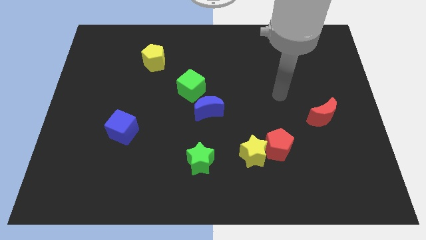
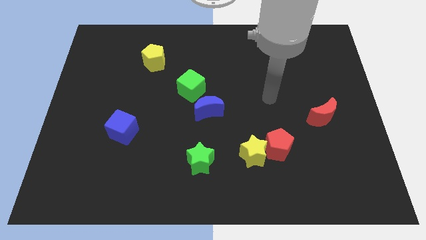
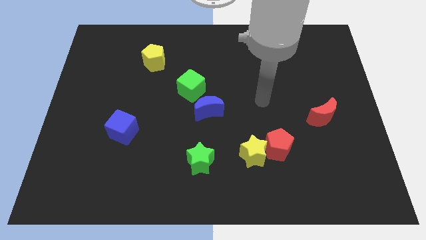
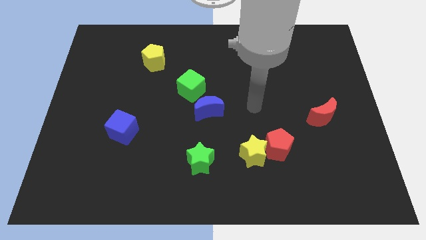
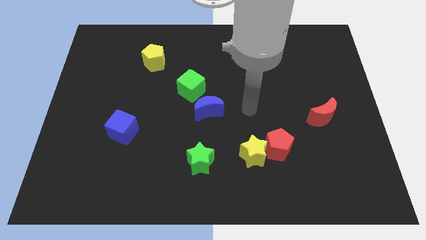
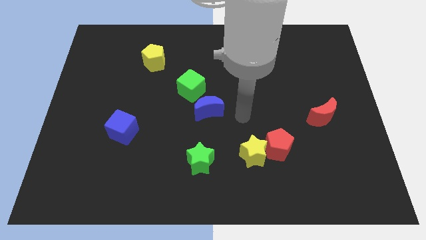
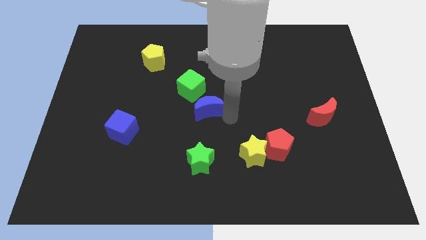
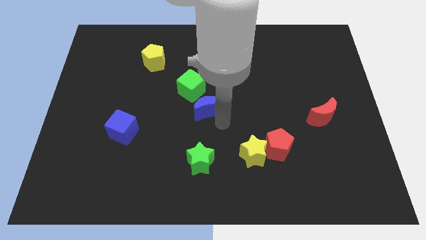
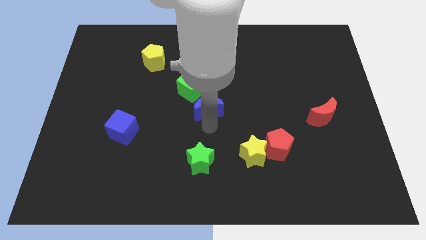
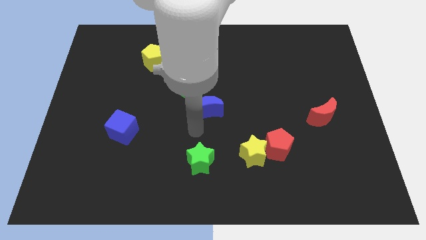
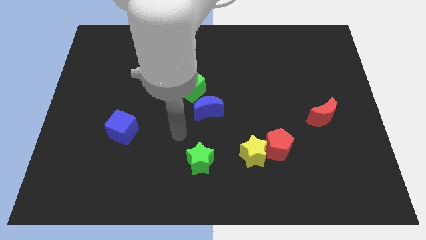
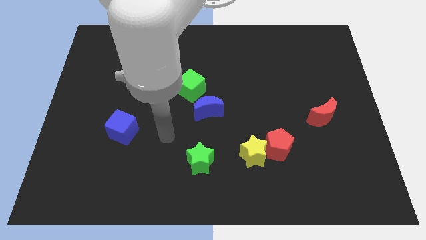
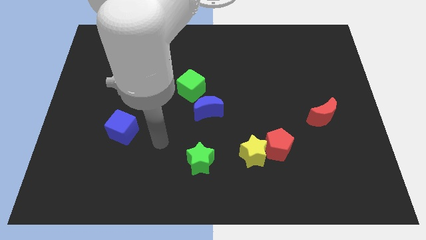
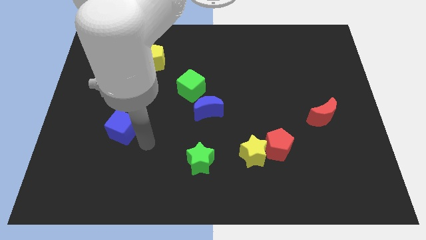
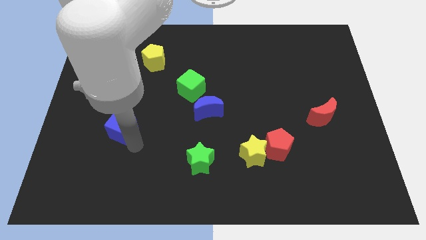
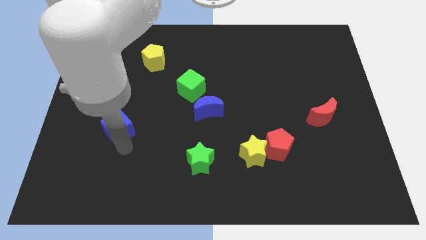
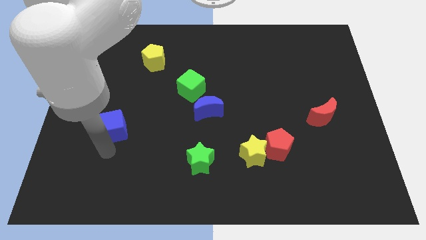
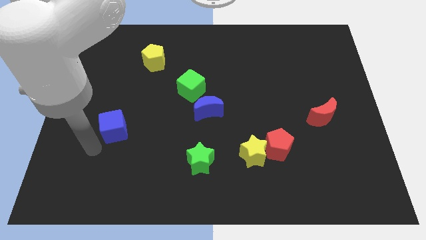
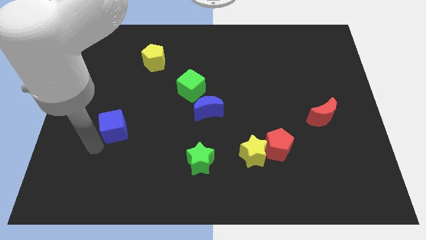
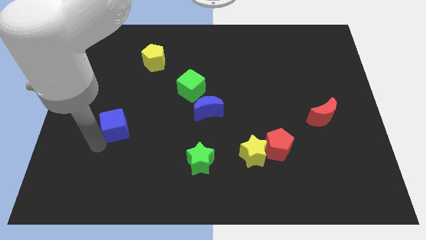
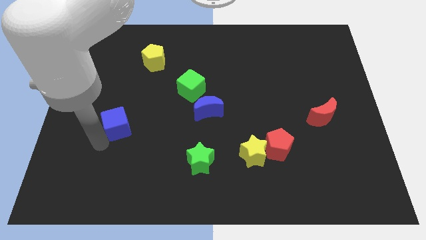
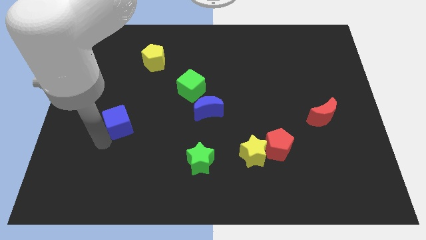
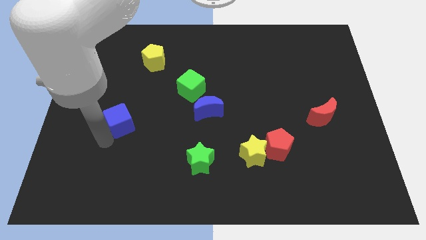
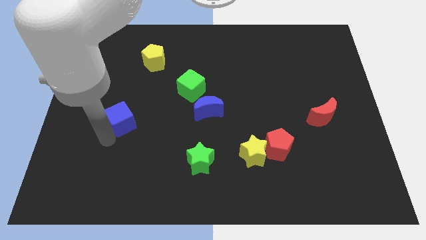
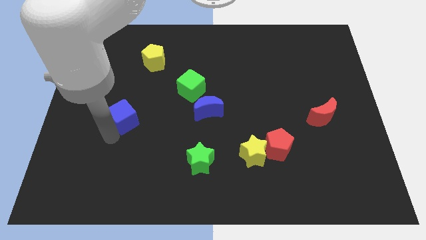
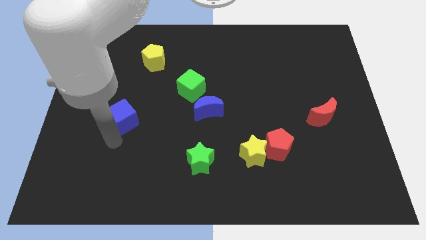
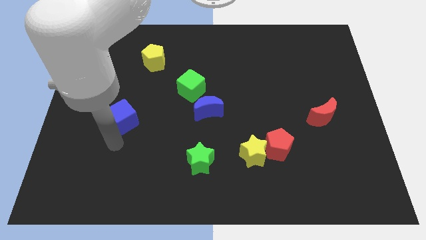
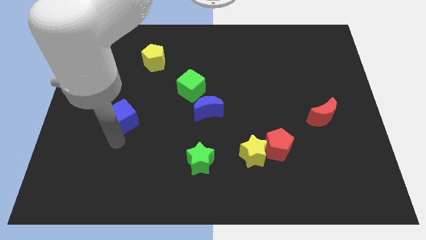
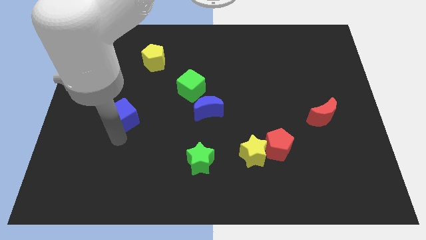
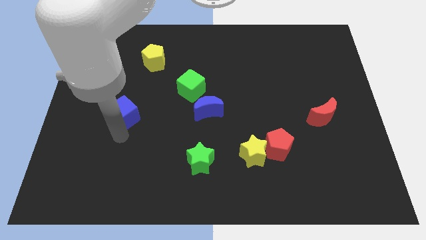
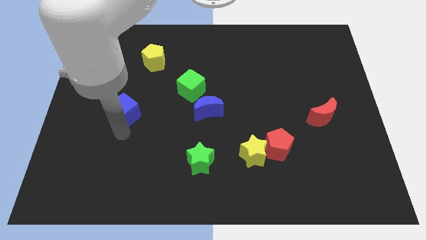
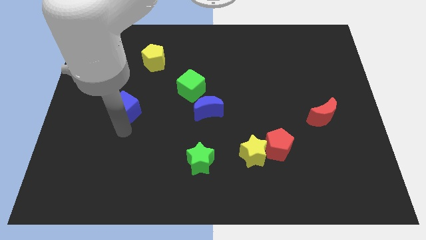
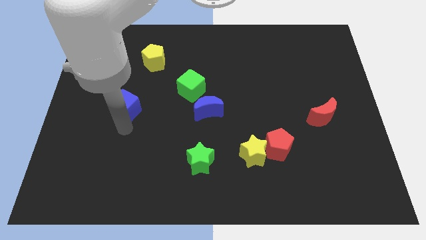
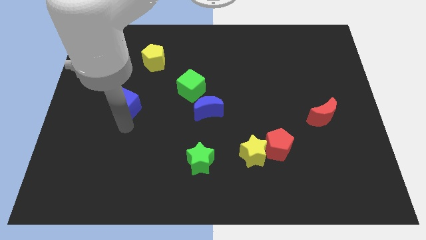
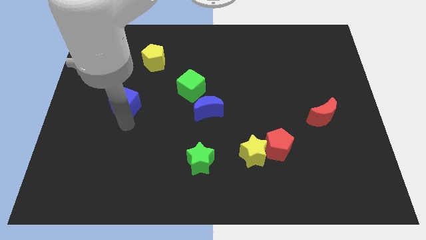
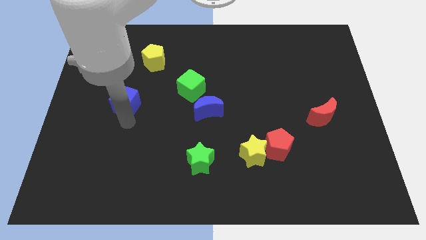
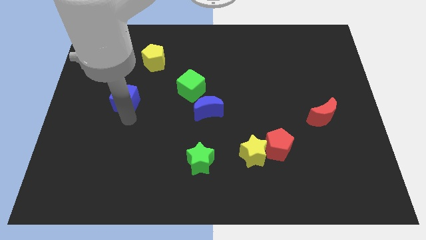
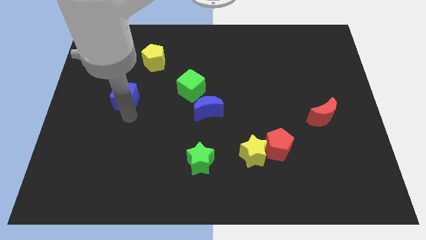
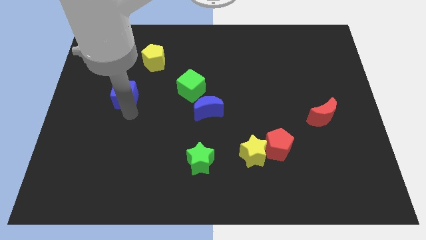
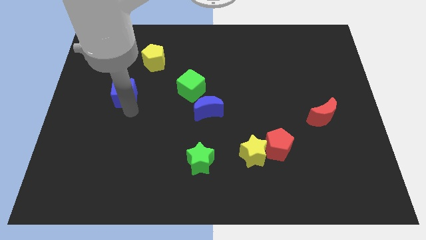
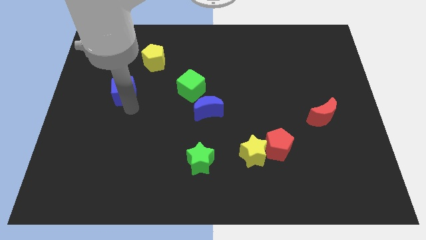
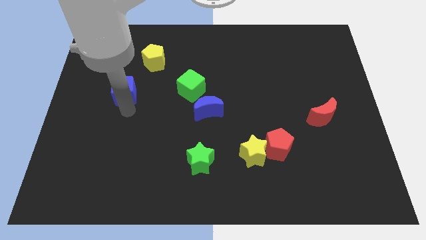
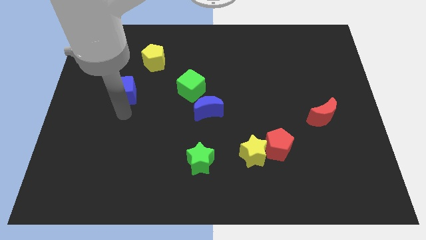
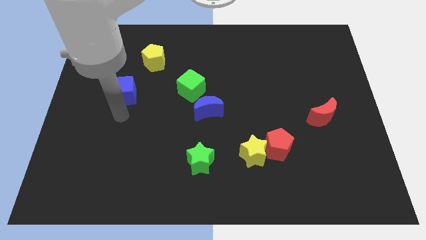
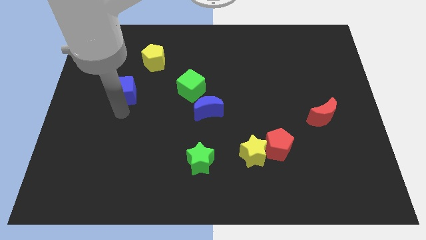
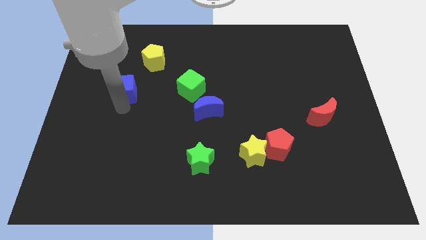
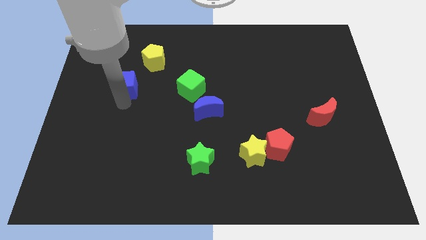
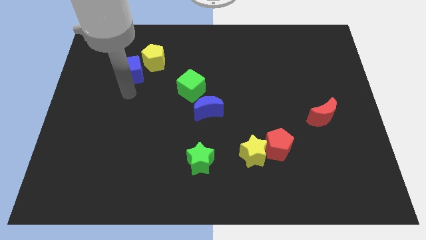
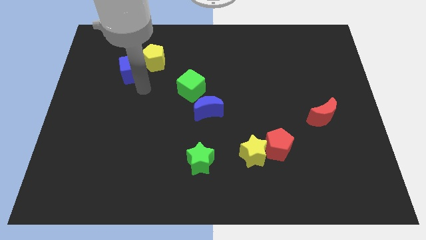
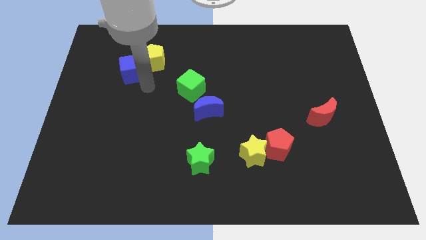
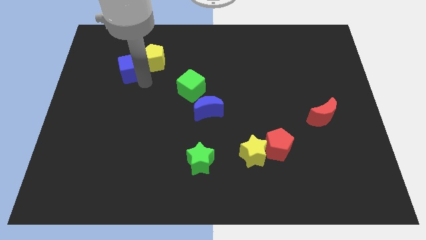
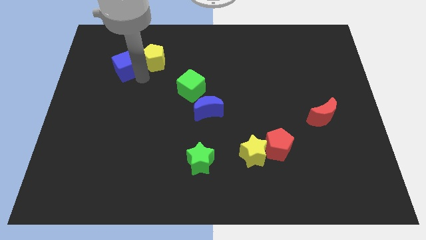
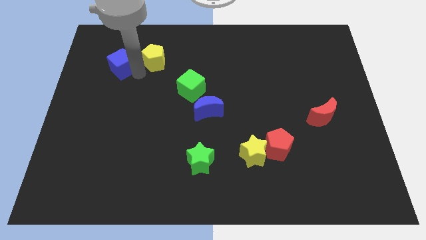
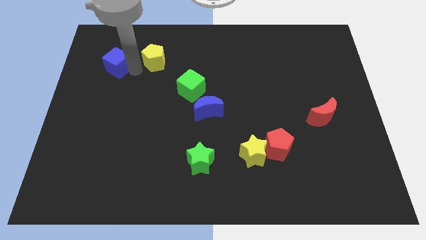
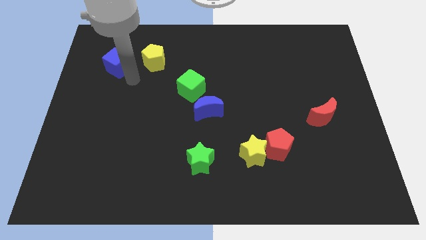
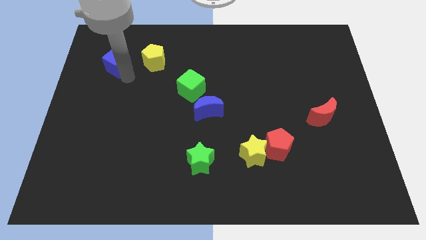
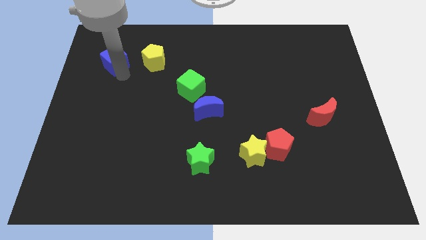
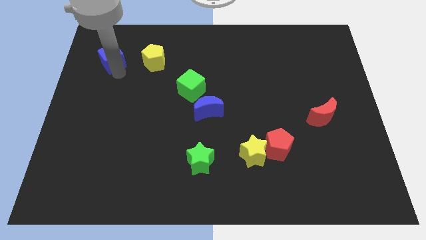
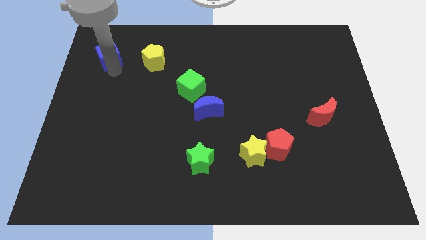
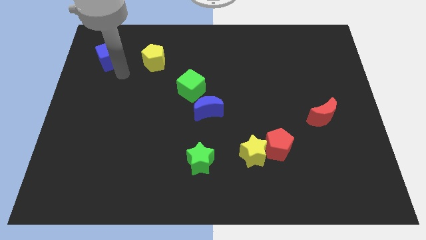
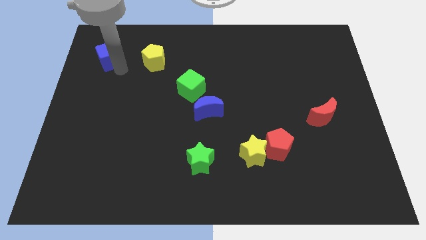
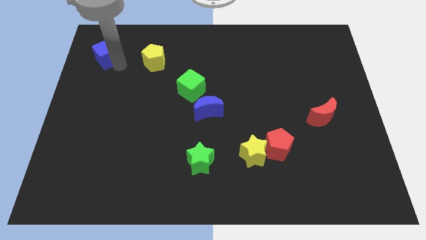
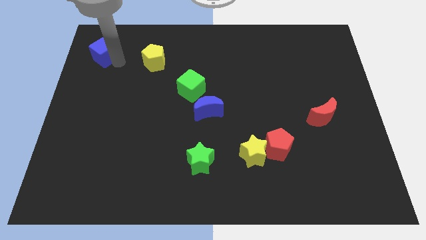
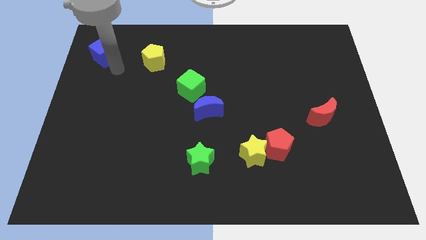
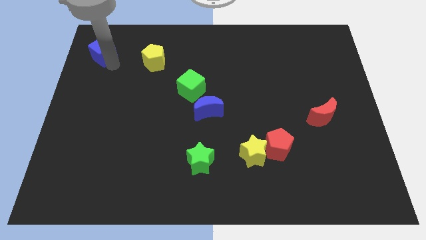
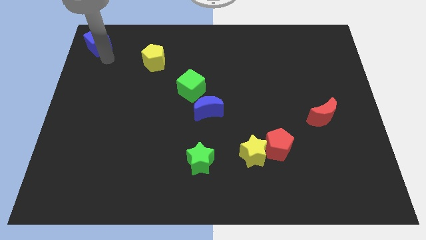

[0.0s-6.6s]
slide the blue cube to the top left corner

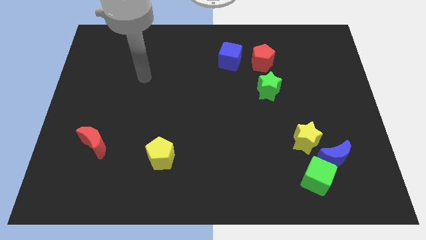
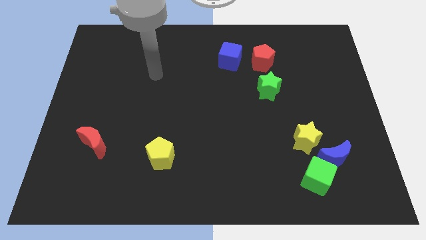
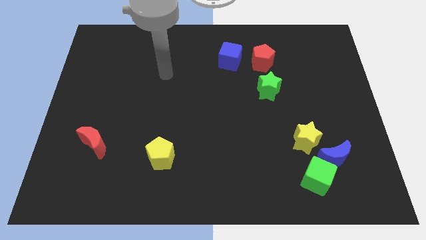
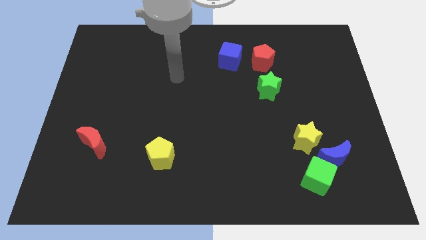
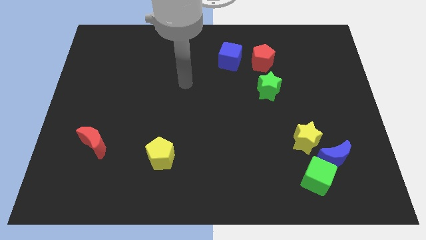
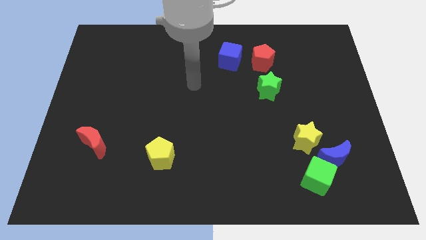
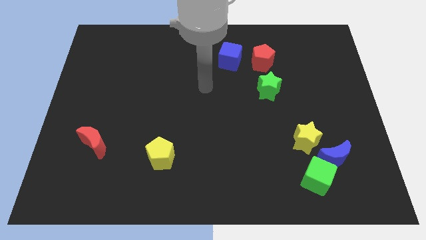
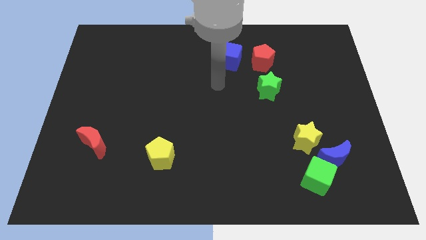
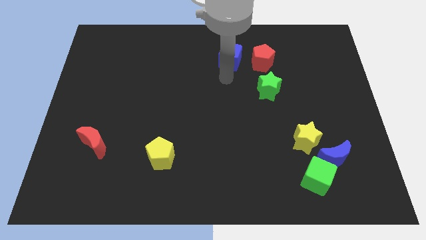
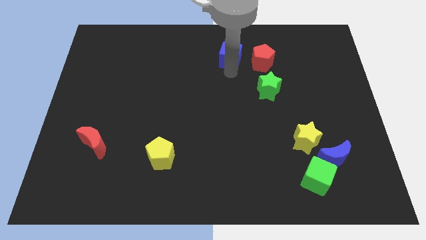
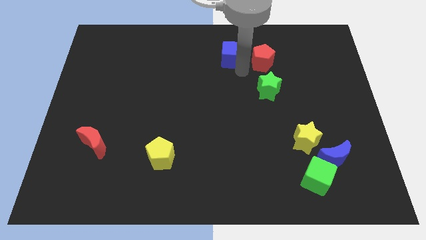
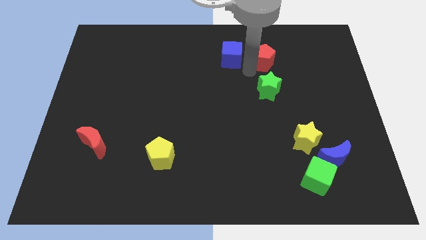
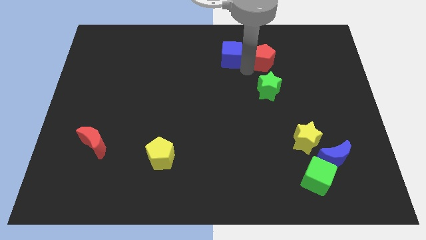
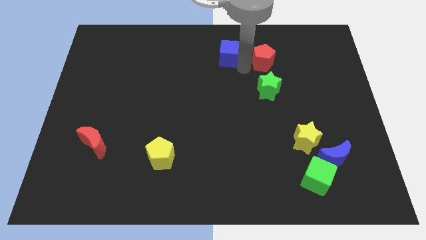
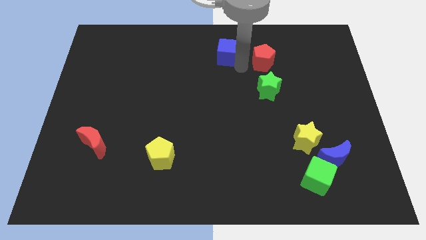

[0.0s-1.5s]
slide the blue cube to the top
